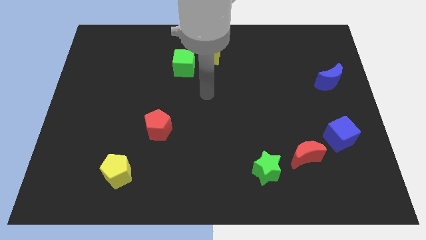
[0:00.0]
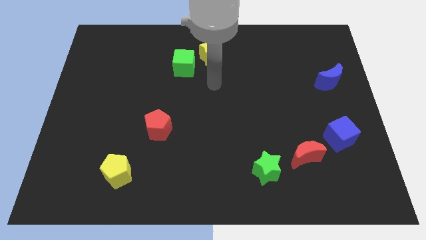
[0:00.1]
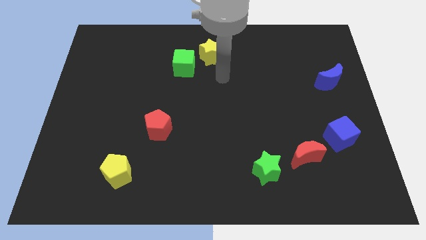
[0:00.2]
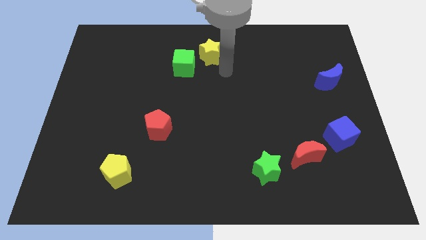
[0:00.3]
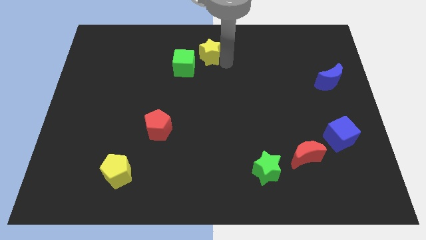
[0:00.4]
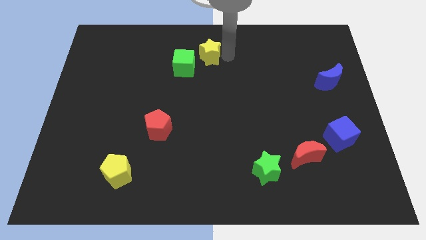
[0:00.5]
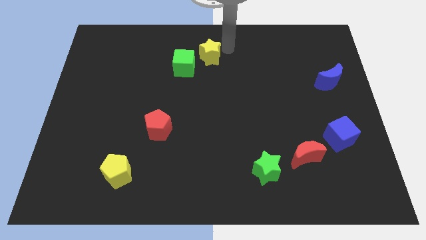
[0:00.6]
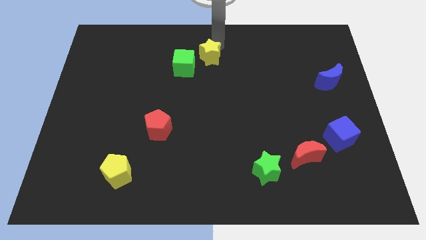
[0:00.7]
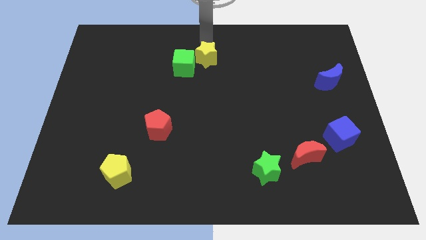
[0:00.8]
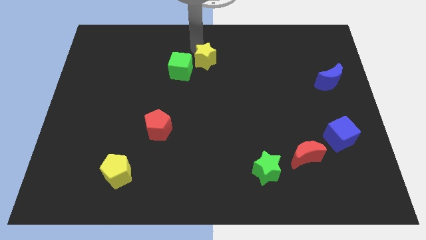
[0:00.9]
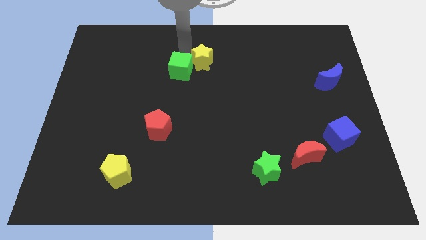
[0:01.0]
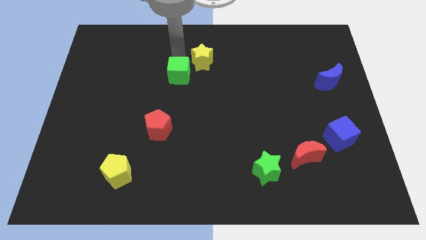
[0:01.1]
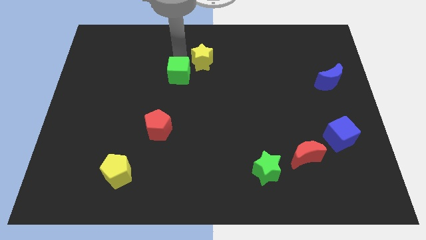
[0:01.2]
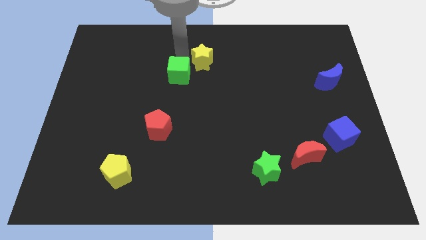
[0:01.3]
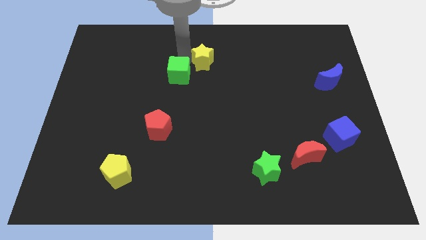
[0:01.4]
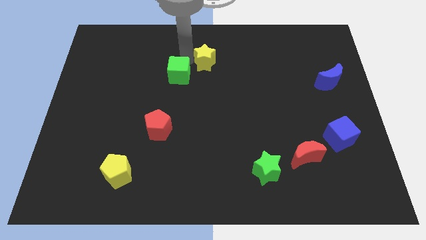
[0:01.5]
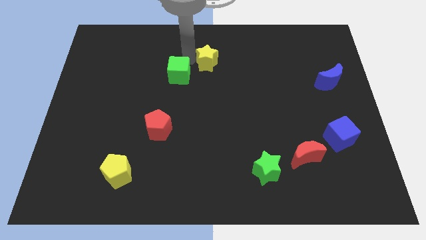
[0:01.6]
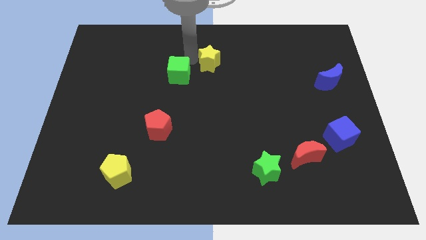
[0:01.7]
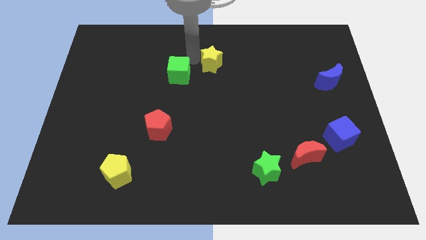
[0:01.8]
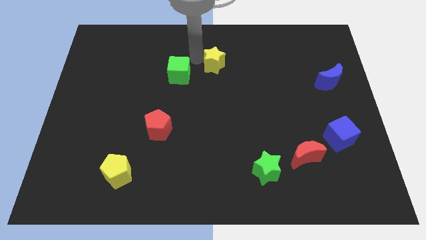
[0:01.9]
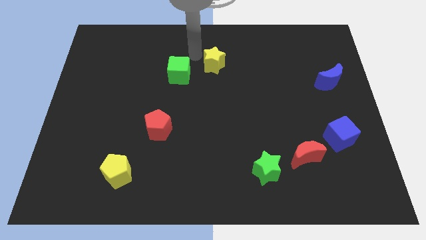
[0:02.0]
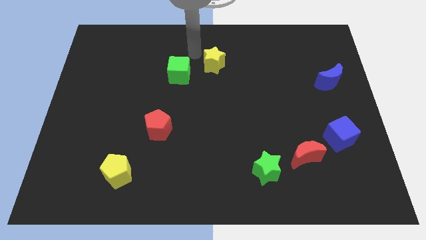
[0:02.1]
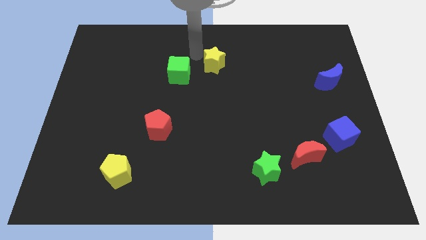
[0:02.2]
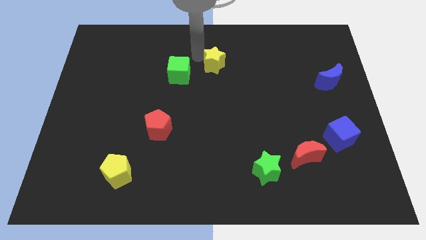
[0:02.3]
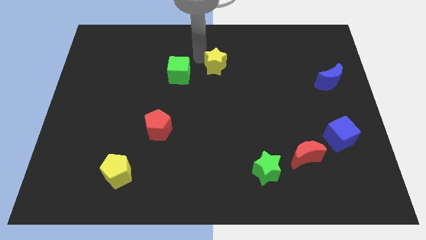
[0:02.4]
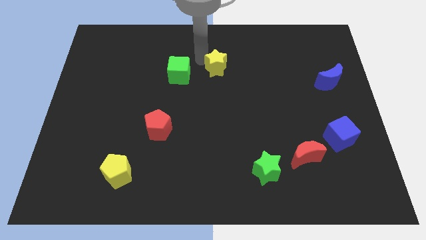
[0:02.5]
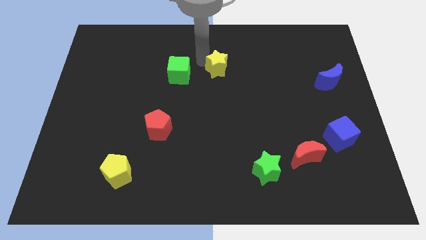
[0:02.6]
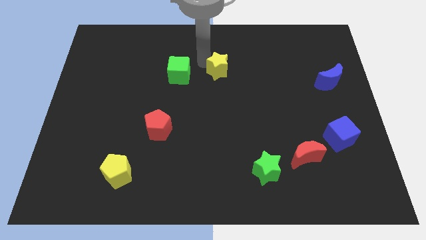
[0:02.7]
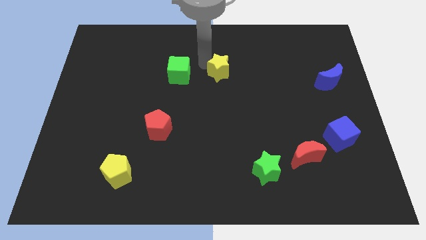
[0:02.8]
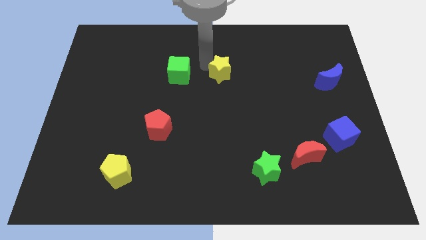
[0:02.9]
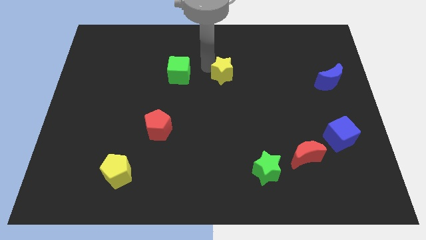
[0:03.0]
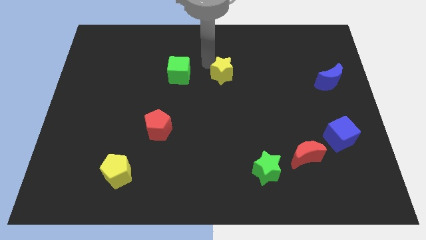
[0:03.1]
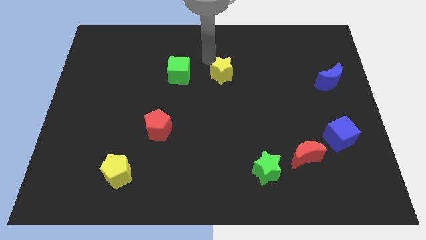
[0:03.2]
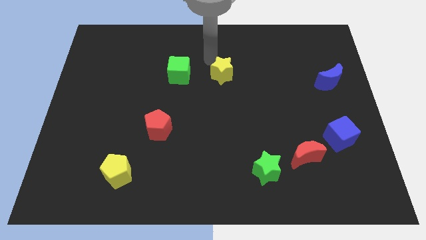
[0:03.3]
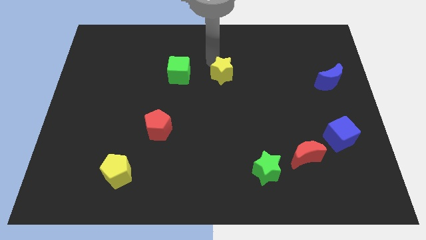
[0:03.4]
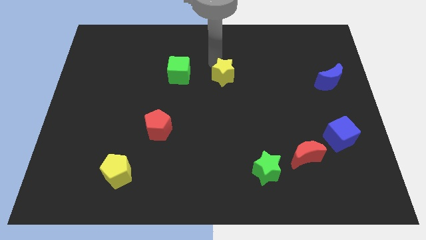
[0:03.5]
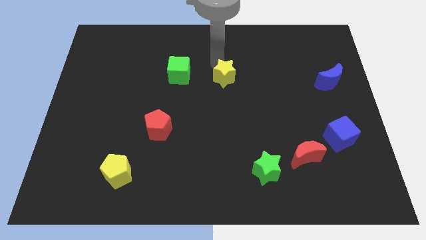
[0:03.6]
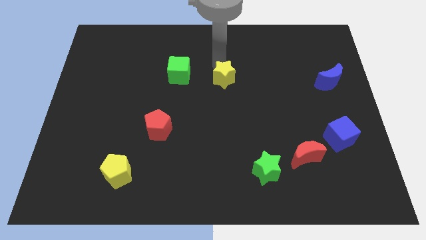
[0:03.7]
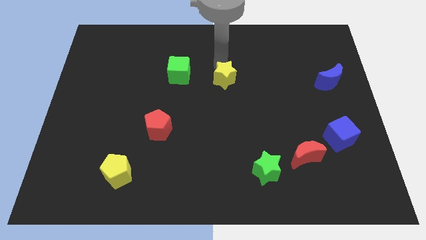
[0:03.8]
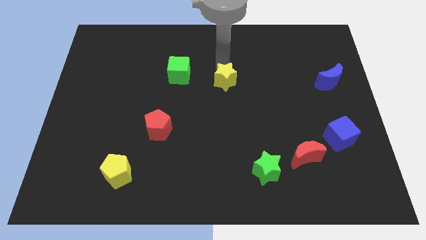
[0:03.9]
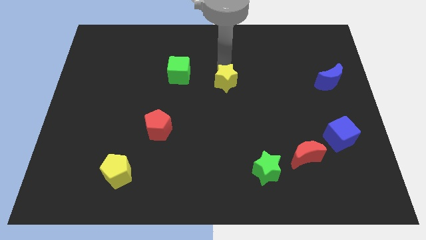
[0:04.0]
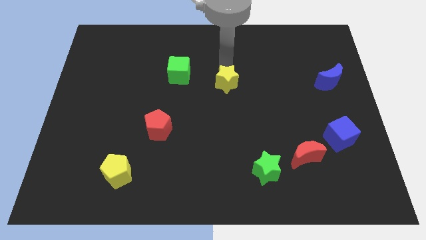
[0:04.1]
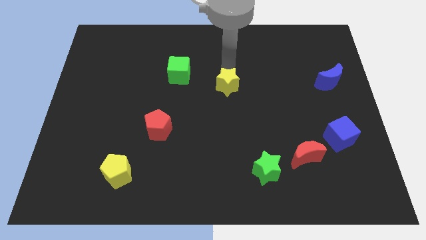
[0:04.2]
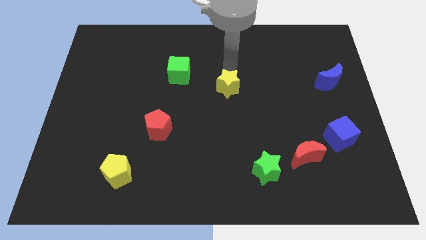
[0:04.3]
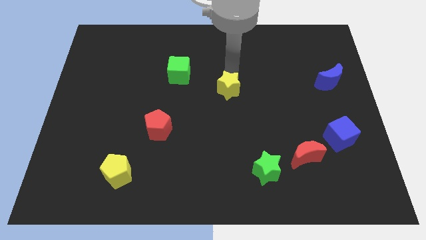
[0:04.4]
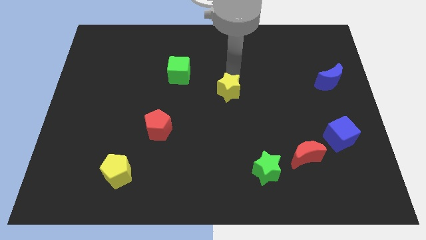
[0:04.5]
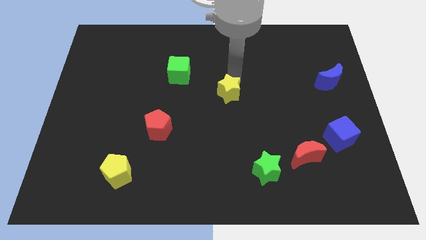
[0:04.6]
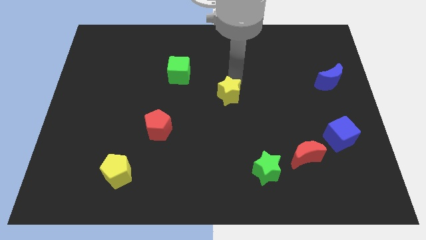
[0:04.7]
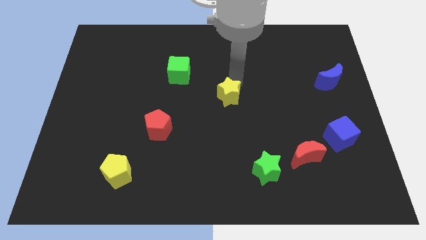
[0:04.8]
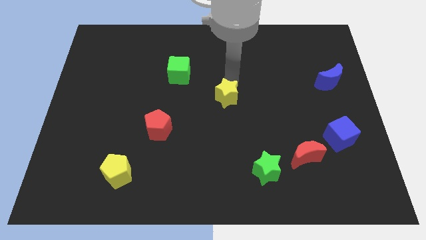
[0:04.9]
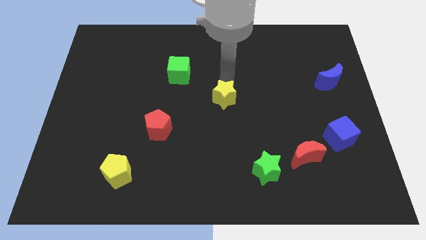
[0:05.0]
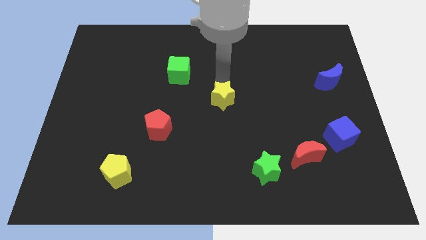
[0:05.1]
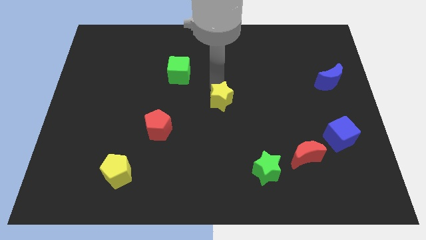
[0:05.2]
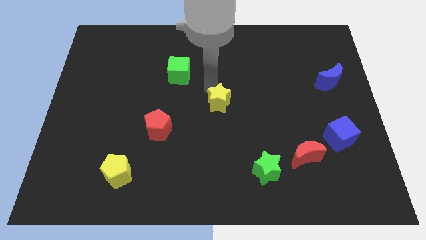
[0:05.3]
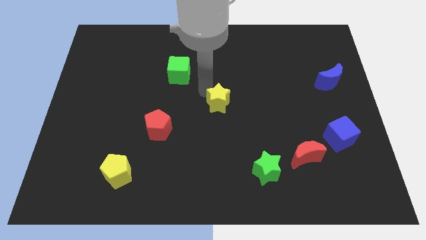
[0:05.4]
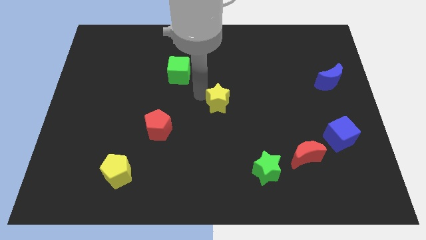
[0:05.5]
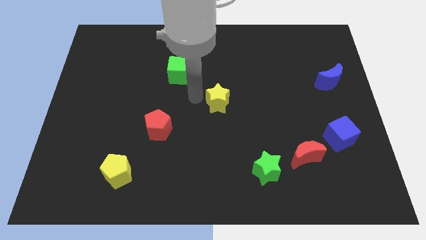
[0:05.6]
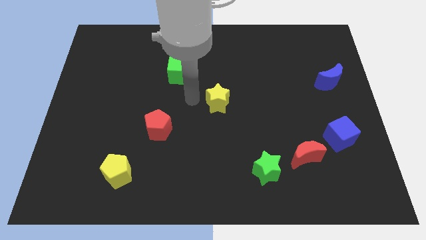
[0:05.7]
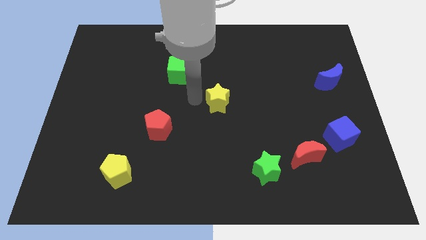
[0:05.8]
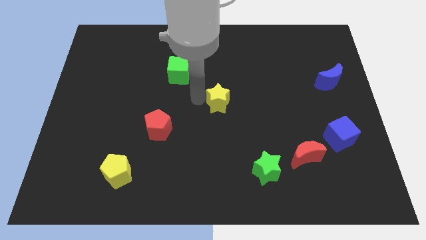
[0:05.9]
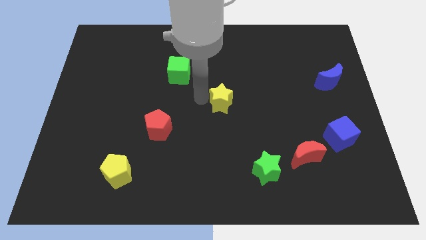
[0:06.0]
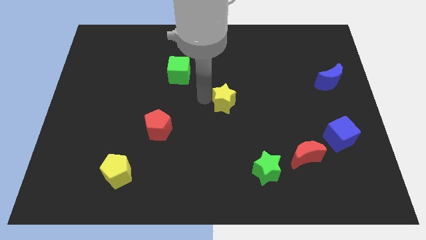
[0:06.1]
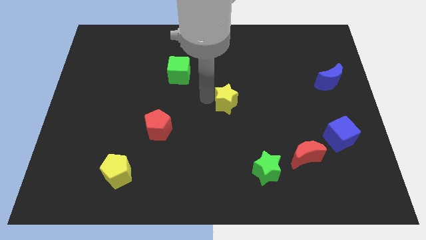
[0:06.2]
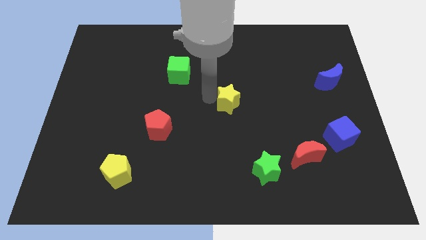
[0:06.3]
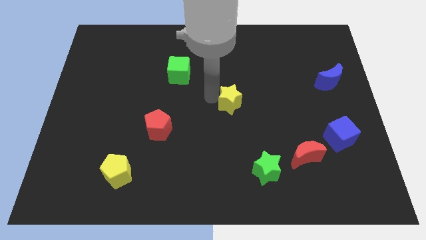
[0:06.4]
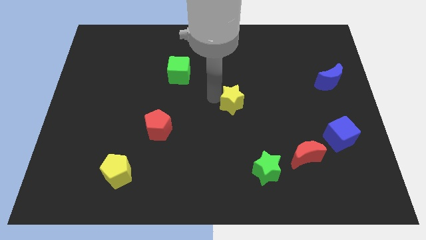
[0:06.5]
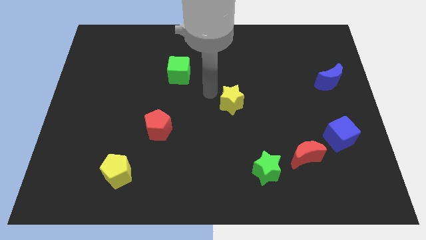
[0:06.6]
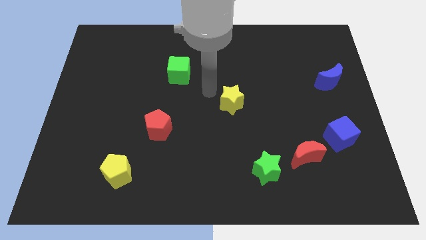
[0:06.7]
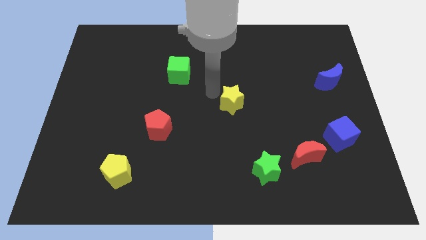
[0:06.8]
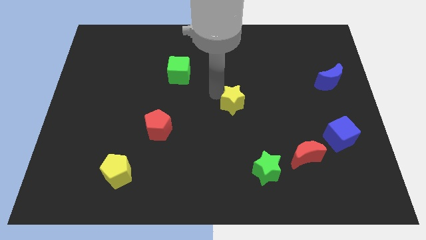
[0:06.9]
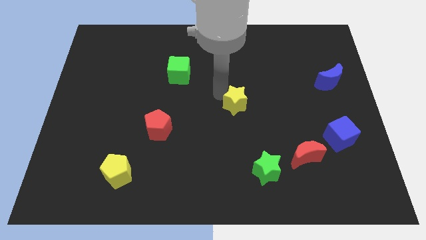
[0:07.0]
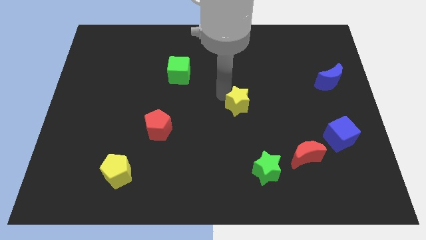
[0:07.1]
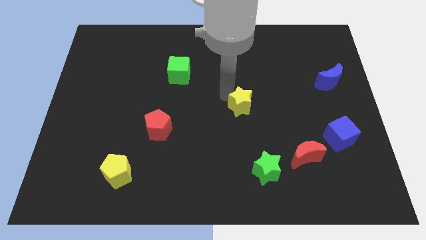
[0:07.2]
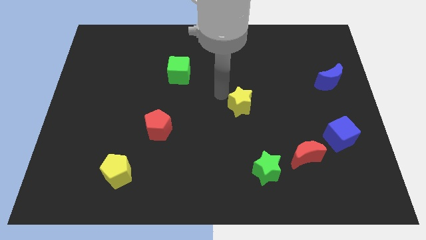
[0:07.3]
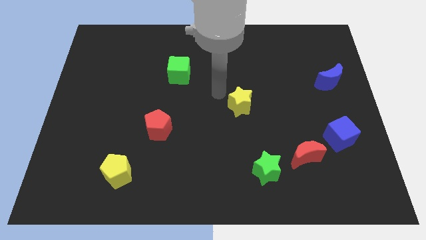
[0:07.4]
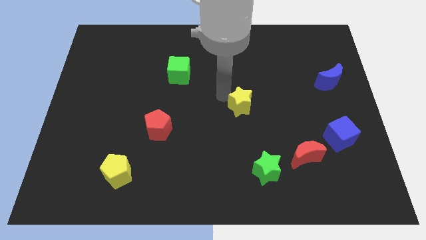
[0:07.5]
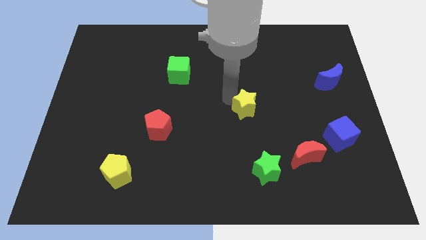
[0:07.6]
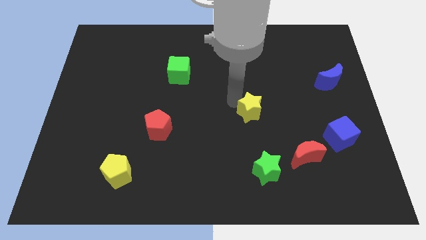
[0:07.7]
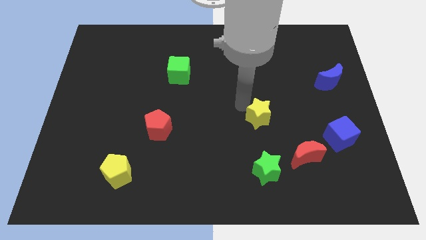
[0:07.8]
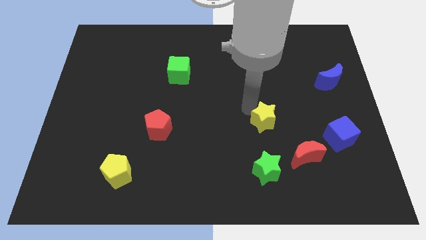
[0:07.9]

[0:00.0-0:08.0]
slide the yellow star to the top left of the red moon
